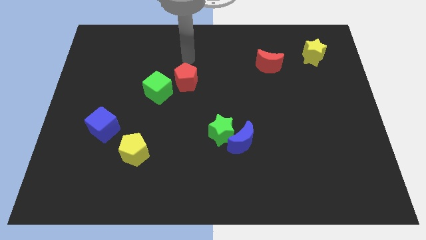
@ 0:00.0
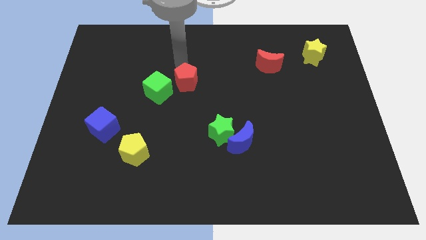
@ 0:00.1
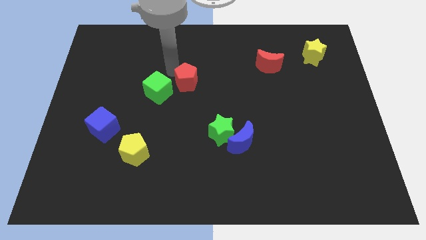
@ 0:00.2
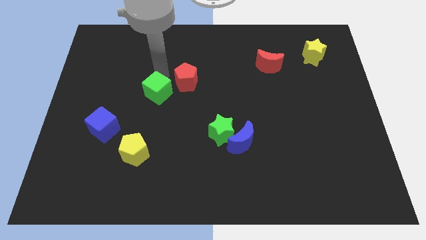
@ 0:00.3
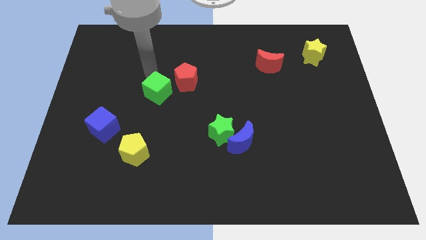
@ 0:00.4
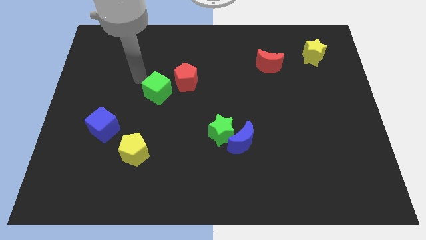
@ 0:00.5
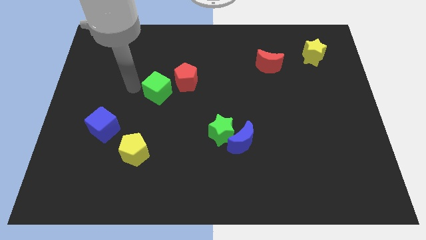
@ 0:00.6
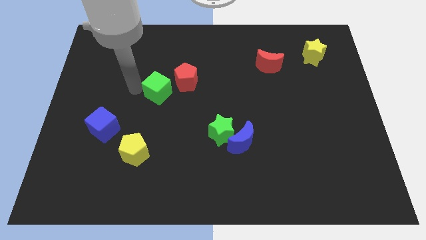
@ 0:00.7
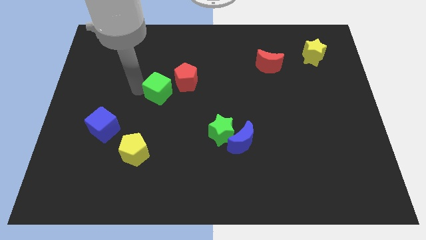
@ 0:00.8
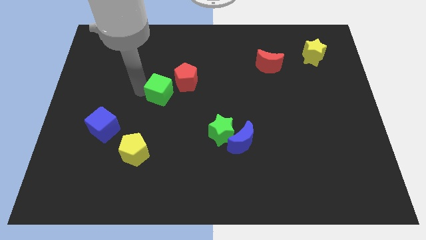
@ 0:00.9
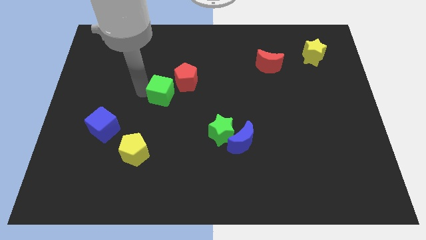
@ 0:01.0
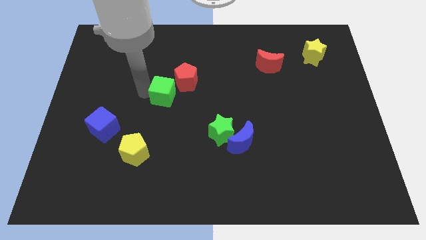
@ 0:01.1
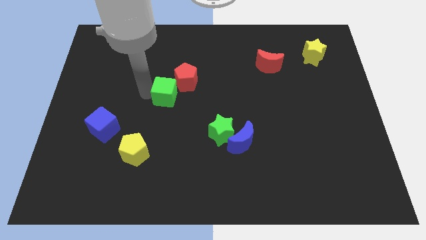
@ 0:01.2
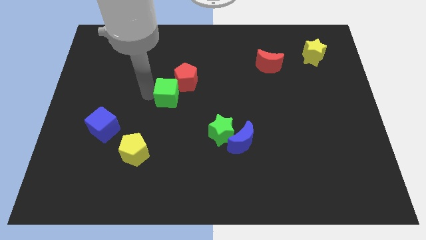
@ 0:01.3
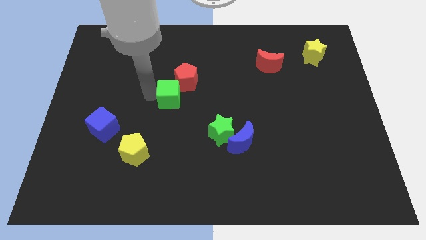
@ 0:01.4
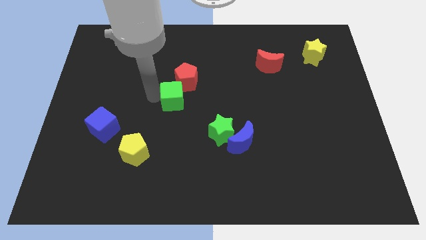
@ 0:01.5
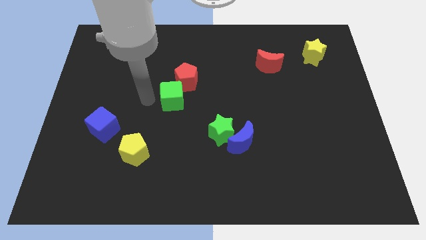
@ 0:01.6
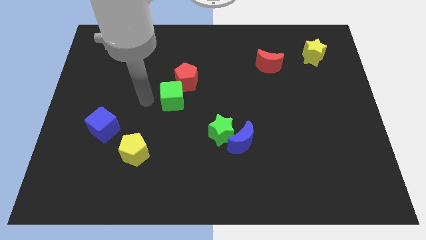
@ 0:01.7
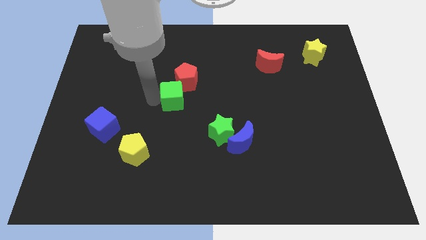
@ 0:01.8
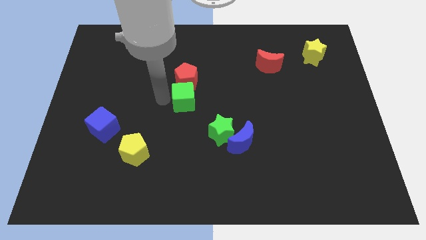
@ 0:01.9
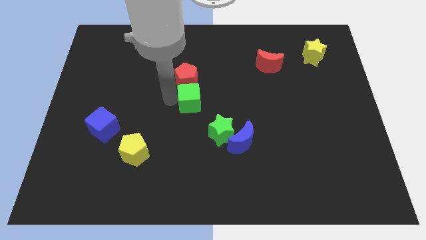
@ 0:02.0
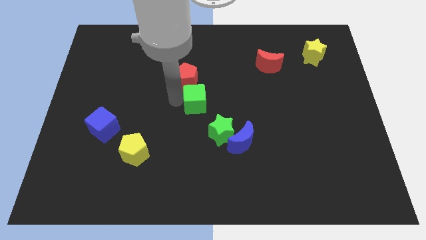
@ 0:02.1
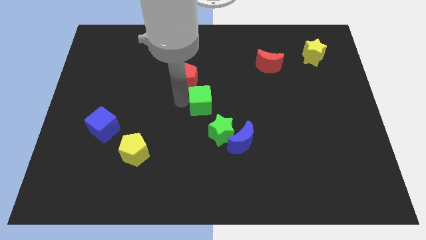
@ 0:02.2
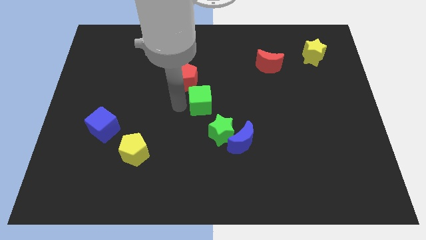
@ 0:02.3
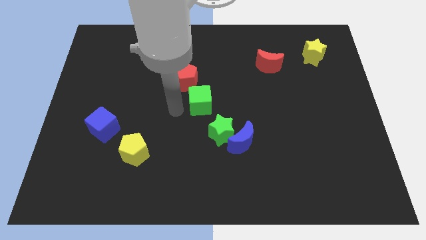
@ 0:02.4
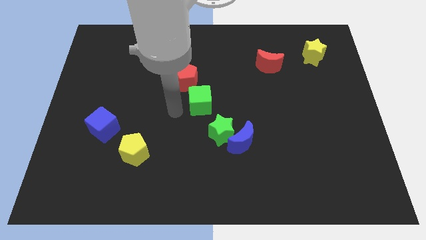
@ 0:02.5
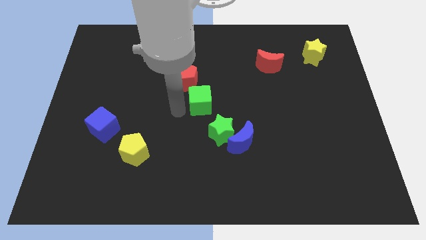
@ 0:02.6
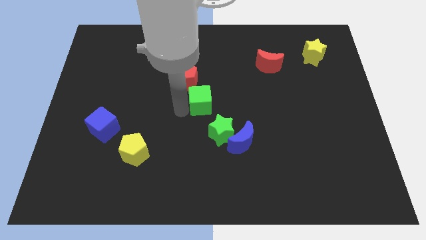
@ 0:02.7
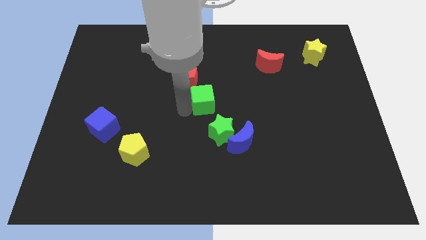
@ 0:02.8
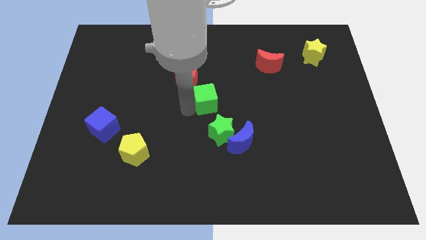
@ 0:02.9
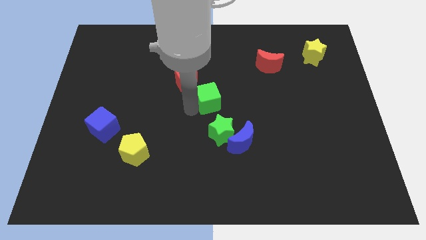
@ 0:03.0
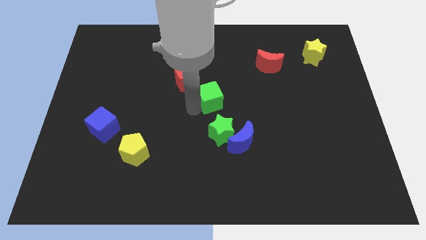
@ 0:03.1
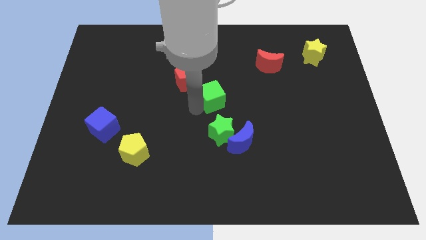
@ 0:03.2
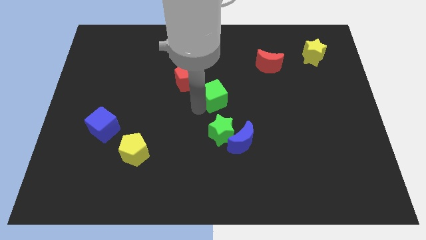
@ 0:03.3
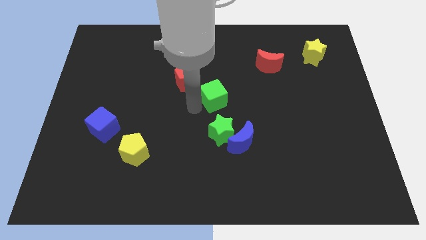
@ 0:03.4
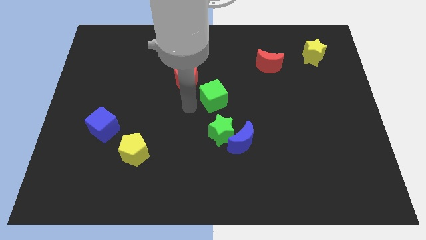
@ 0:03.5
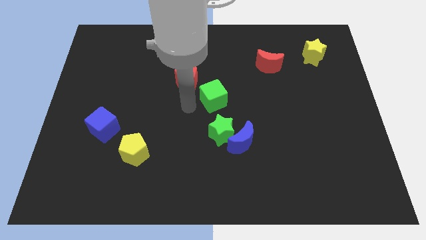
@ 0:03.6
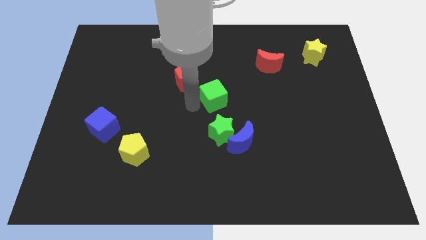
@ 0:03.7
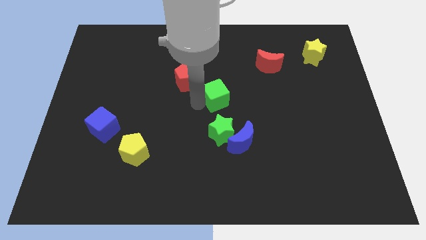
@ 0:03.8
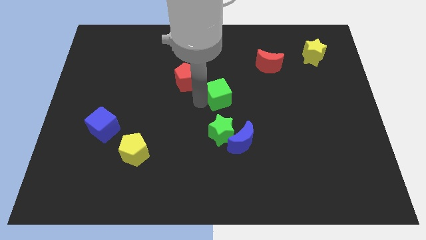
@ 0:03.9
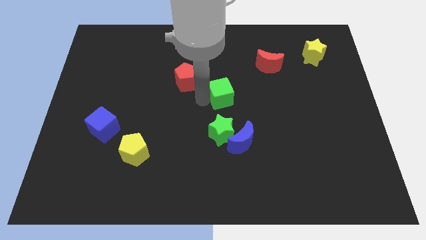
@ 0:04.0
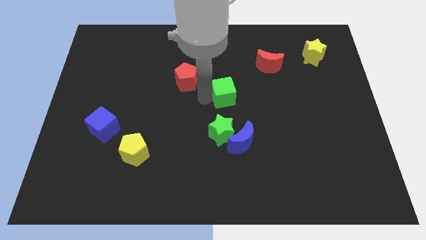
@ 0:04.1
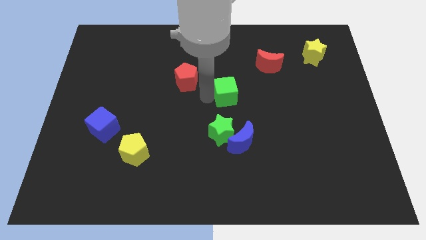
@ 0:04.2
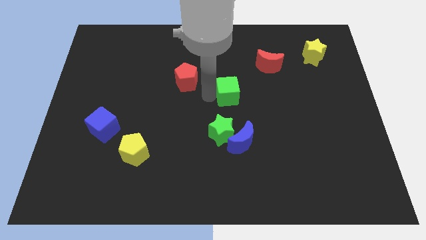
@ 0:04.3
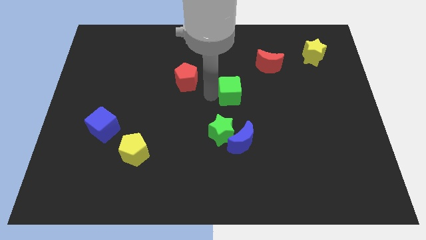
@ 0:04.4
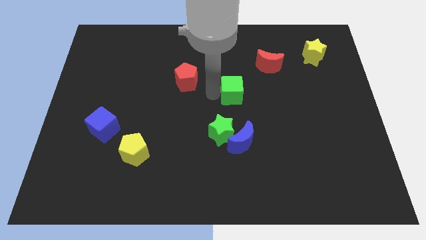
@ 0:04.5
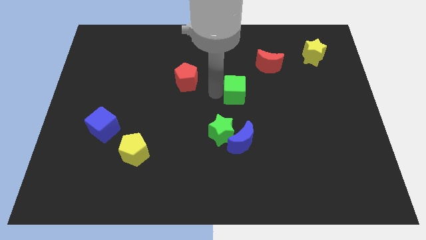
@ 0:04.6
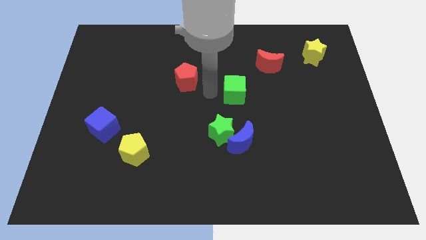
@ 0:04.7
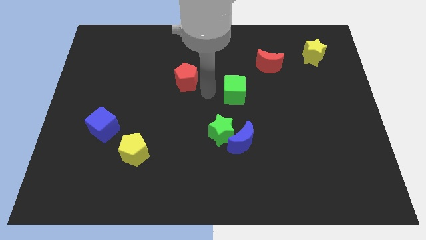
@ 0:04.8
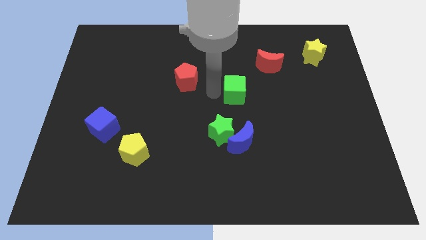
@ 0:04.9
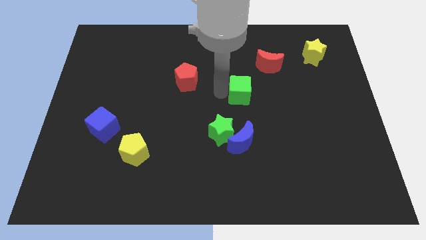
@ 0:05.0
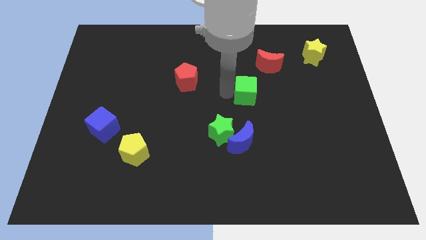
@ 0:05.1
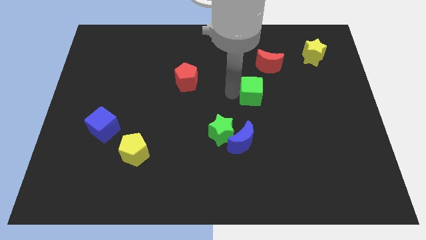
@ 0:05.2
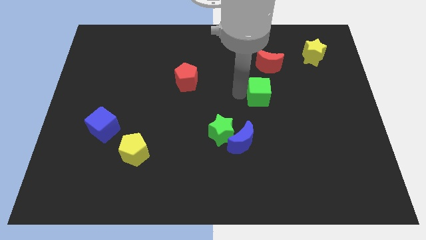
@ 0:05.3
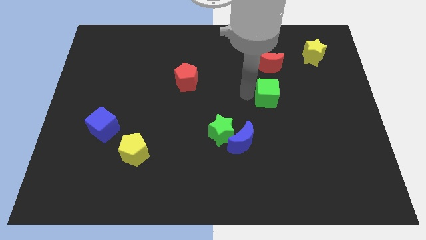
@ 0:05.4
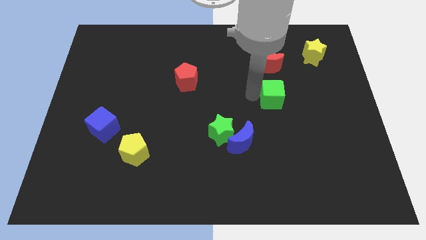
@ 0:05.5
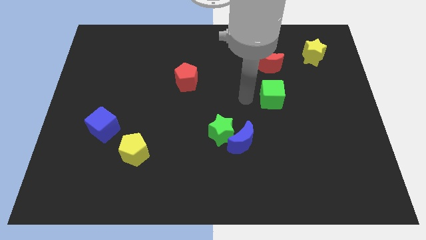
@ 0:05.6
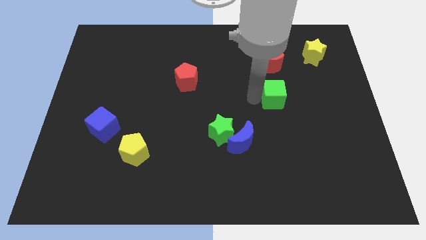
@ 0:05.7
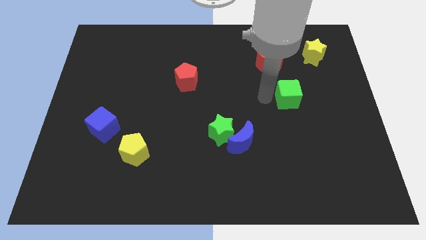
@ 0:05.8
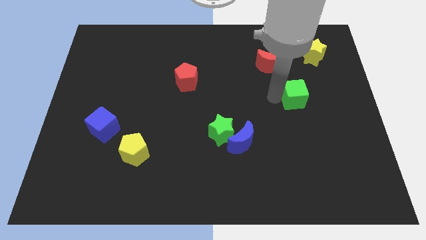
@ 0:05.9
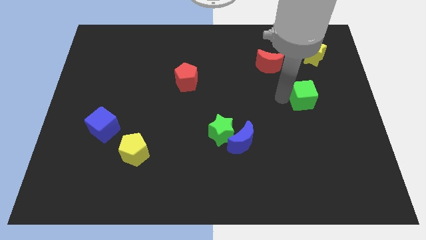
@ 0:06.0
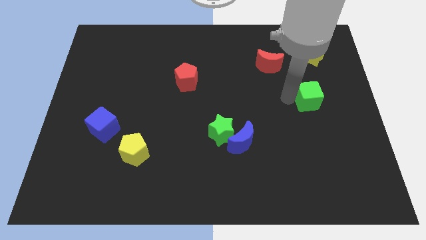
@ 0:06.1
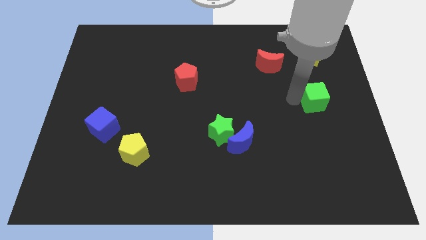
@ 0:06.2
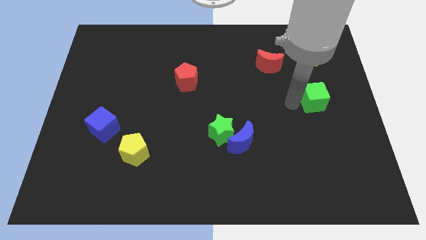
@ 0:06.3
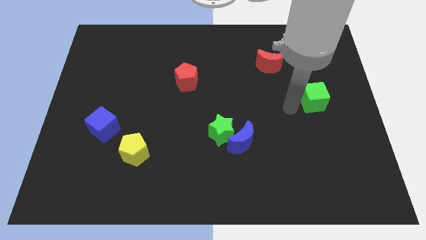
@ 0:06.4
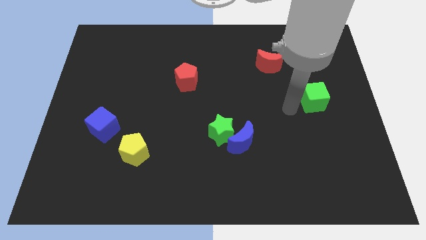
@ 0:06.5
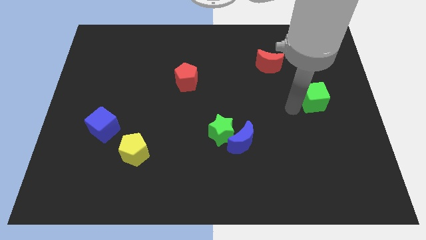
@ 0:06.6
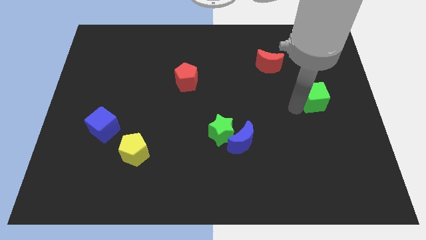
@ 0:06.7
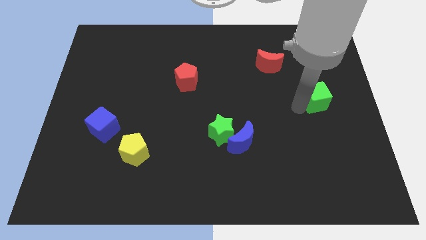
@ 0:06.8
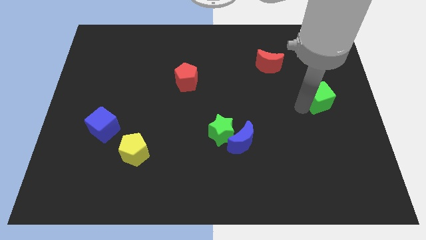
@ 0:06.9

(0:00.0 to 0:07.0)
push the green cube to the right side of the board
